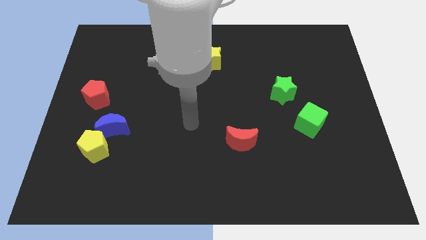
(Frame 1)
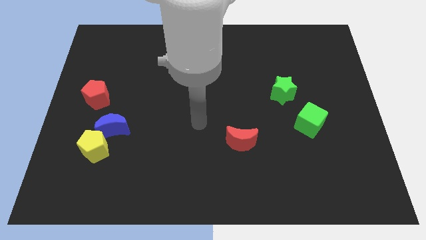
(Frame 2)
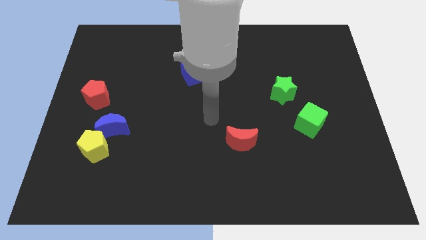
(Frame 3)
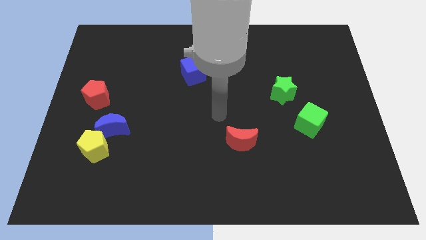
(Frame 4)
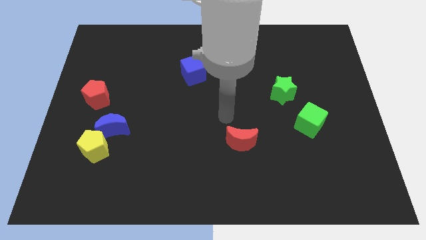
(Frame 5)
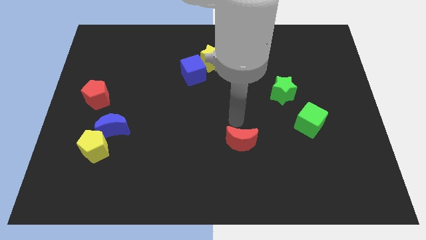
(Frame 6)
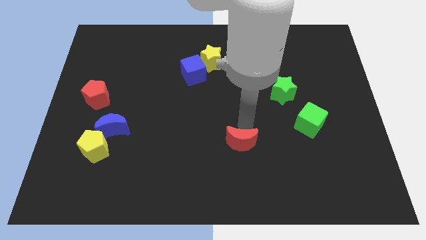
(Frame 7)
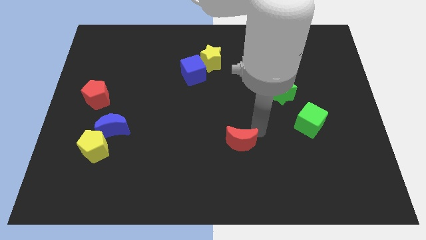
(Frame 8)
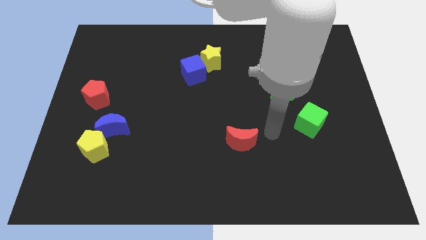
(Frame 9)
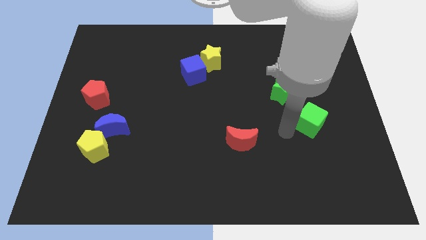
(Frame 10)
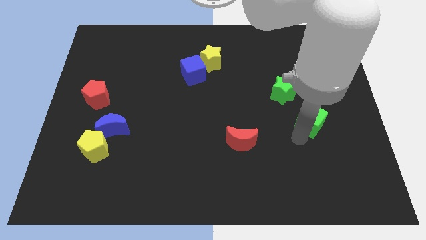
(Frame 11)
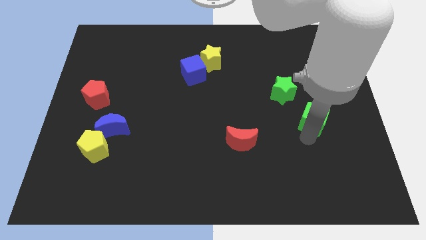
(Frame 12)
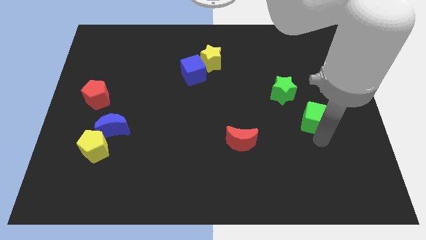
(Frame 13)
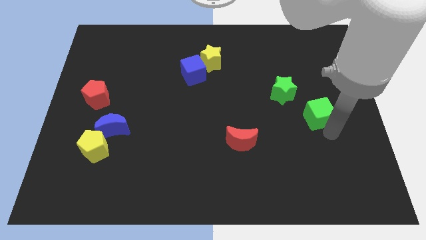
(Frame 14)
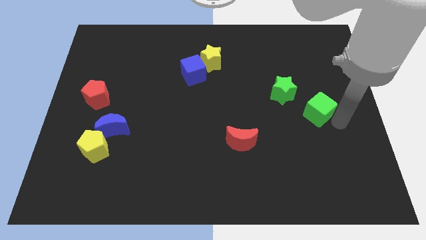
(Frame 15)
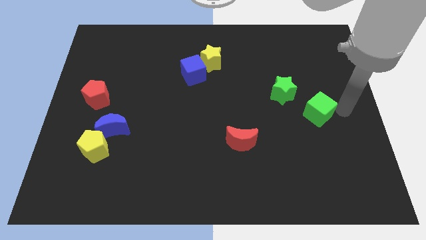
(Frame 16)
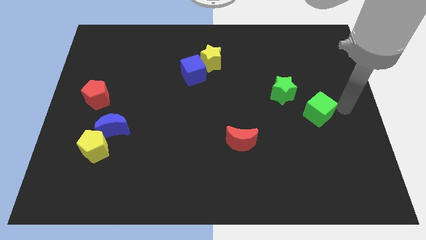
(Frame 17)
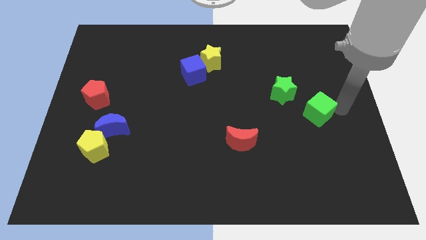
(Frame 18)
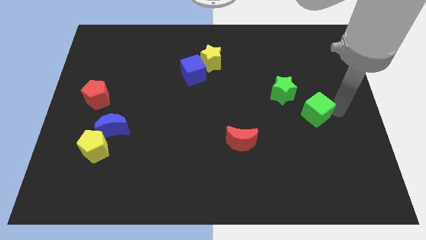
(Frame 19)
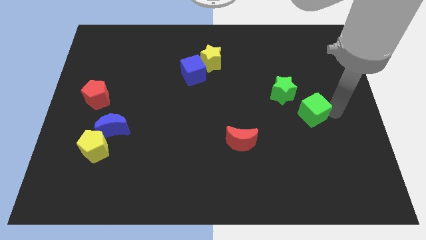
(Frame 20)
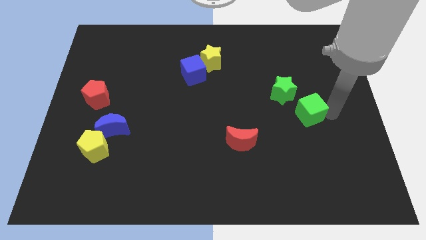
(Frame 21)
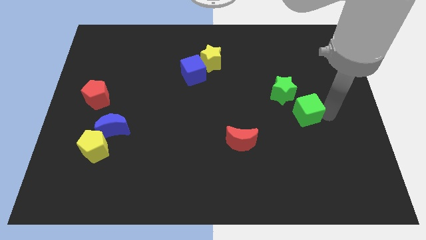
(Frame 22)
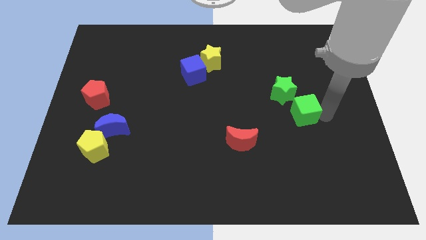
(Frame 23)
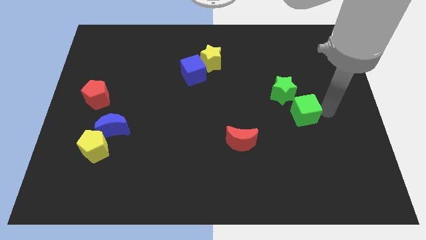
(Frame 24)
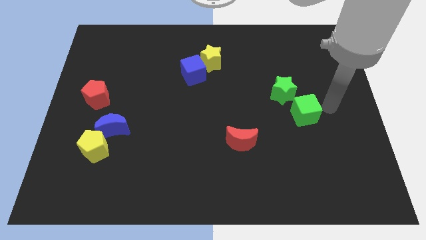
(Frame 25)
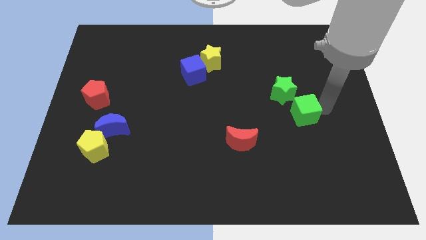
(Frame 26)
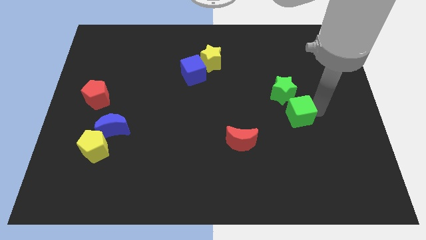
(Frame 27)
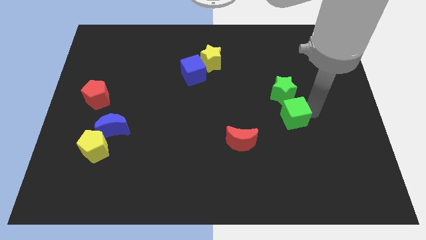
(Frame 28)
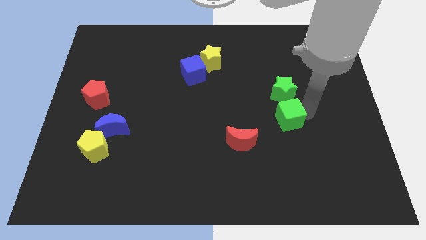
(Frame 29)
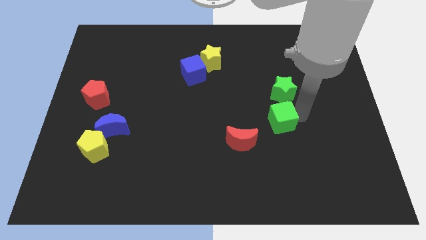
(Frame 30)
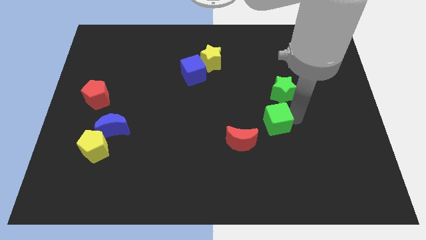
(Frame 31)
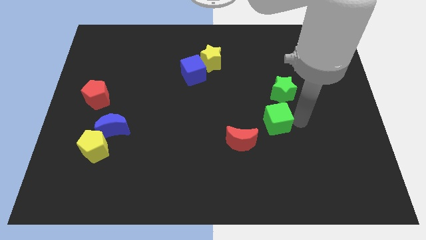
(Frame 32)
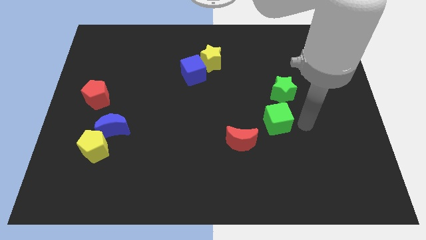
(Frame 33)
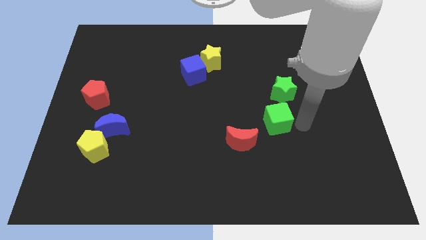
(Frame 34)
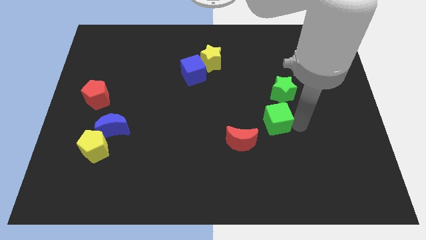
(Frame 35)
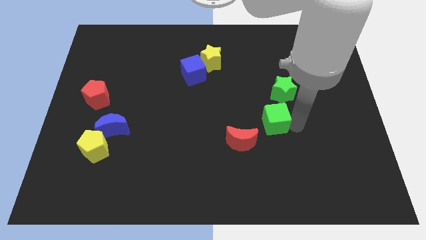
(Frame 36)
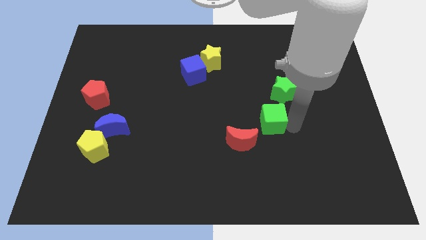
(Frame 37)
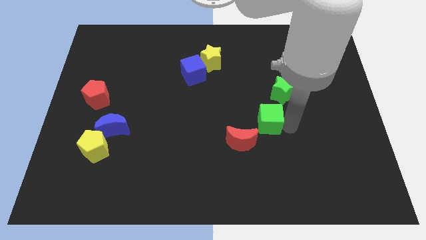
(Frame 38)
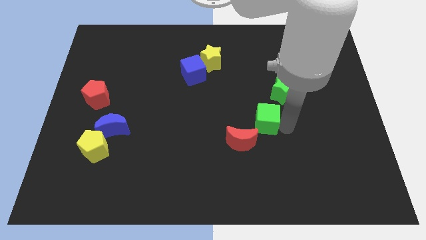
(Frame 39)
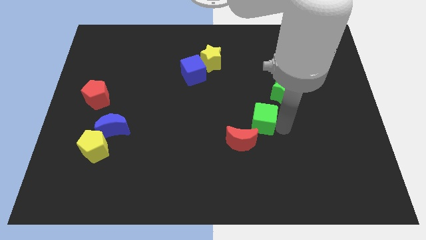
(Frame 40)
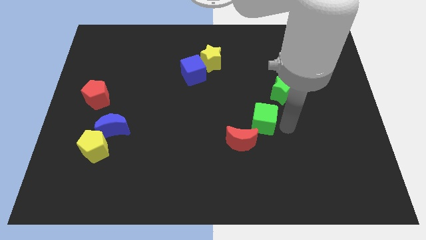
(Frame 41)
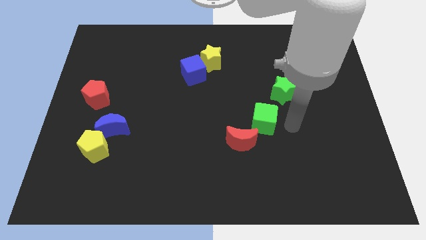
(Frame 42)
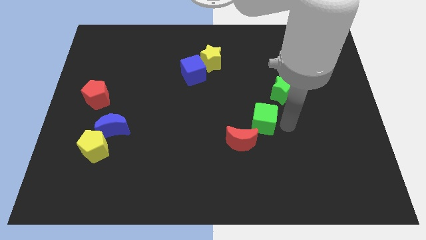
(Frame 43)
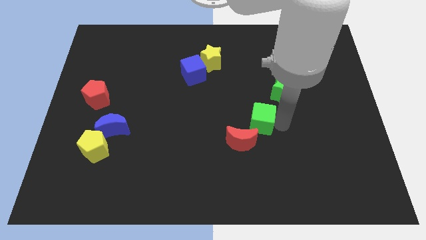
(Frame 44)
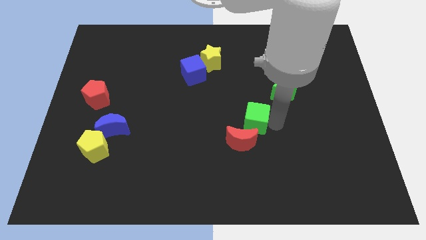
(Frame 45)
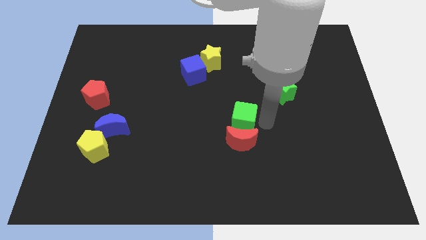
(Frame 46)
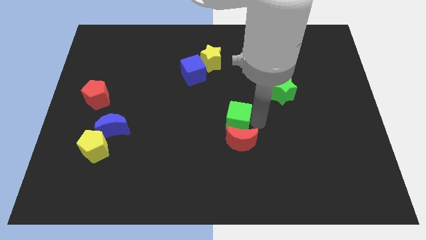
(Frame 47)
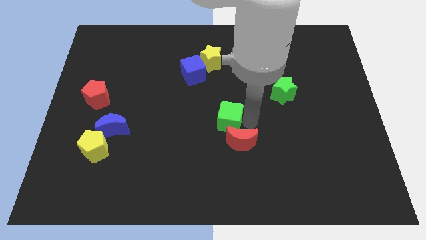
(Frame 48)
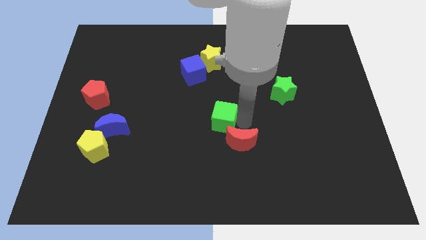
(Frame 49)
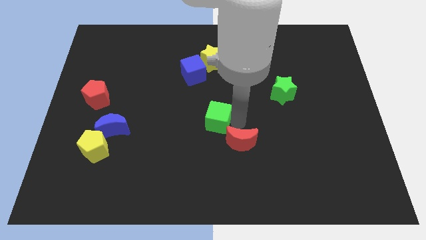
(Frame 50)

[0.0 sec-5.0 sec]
push the green cube to the left

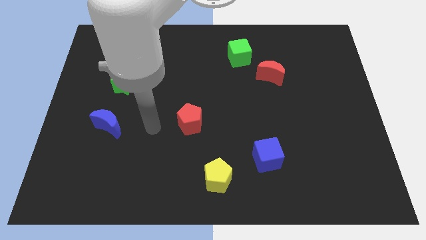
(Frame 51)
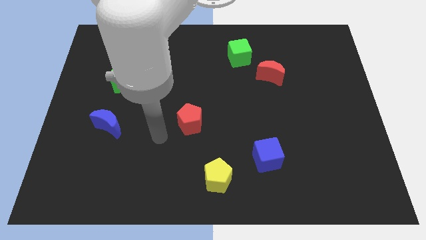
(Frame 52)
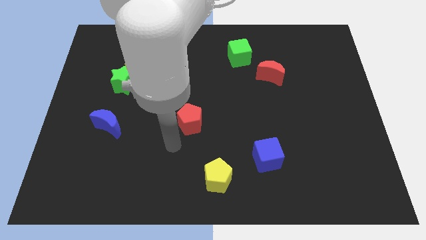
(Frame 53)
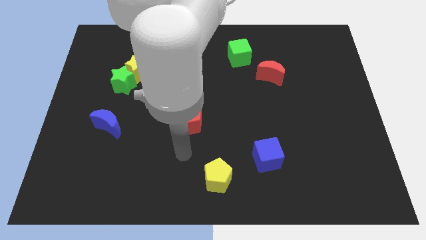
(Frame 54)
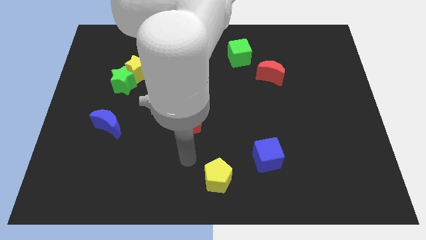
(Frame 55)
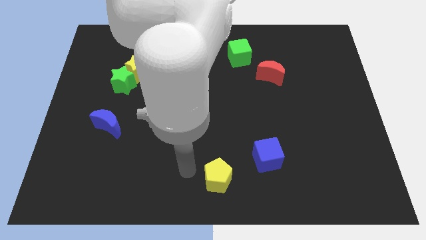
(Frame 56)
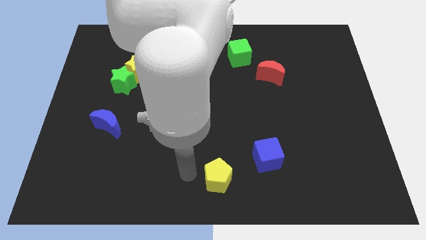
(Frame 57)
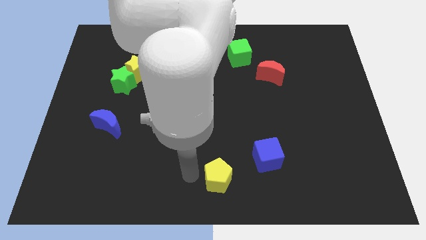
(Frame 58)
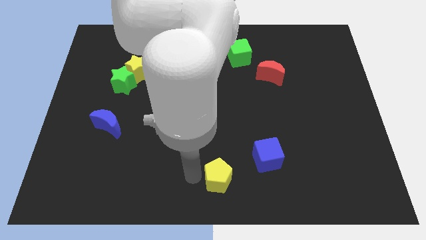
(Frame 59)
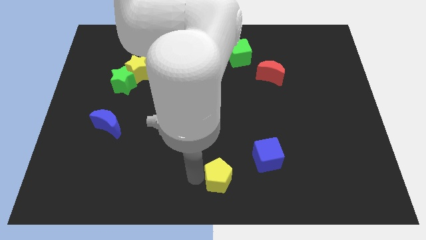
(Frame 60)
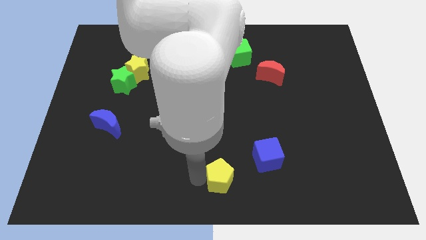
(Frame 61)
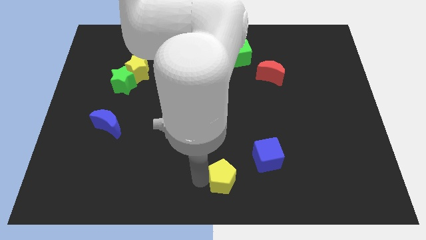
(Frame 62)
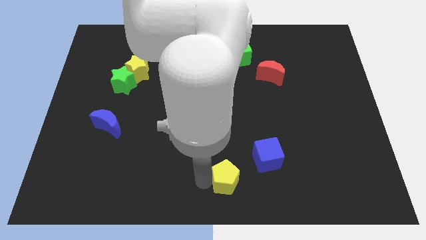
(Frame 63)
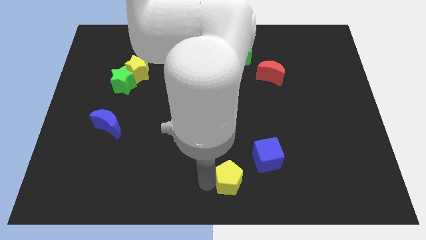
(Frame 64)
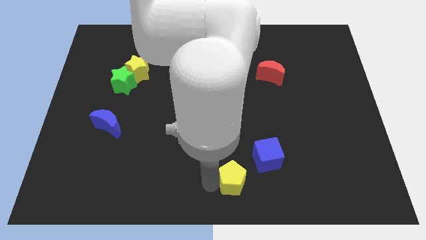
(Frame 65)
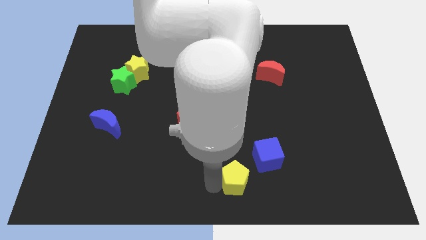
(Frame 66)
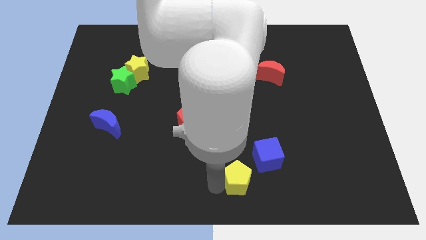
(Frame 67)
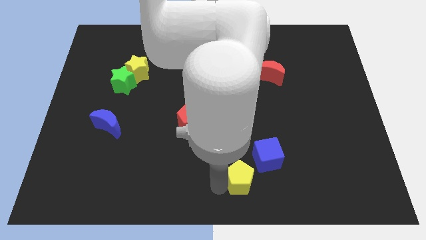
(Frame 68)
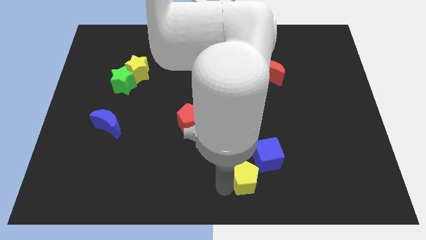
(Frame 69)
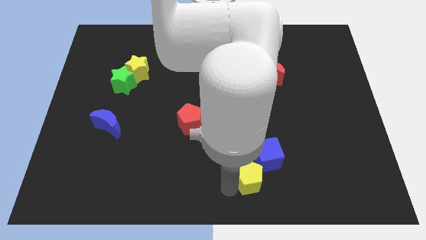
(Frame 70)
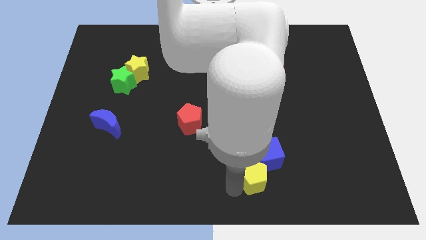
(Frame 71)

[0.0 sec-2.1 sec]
move the yellow pentagon to the right slightly

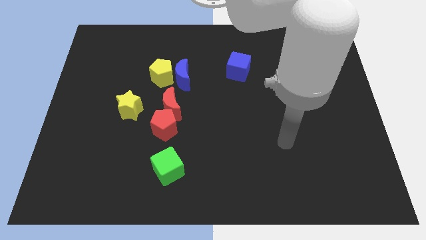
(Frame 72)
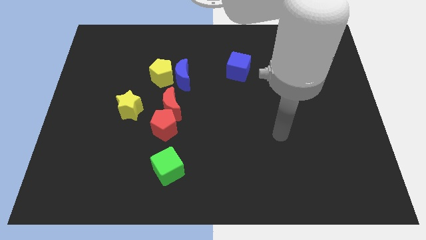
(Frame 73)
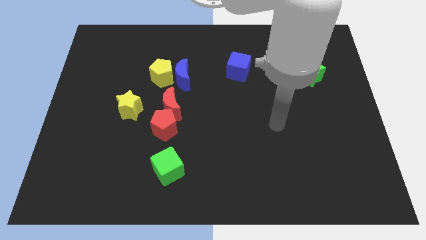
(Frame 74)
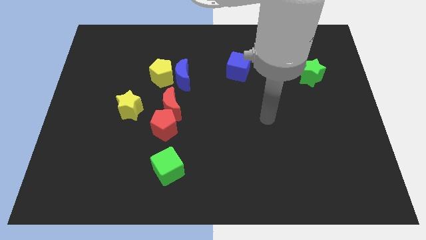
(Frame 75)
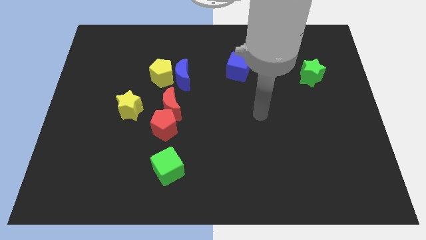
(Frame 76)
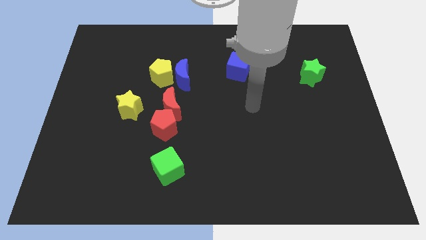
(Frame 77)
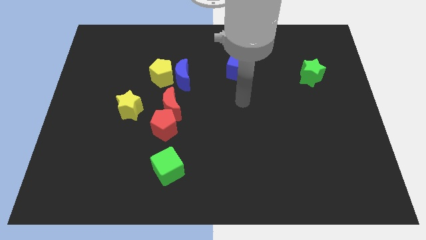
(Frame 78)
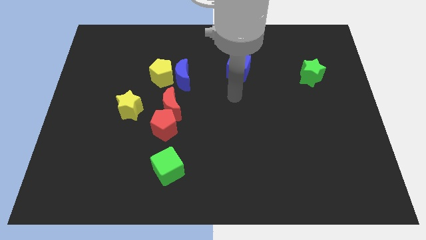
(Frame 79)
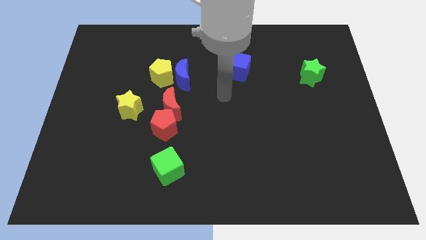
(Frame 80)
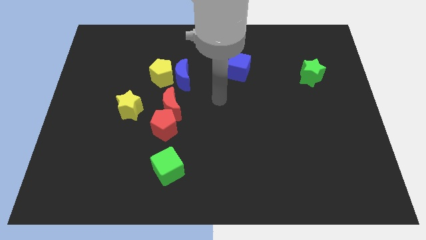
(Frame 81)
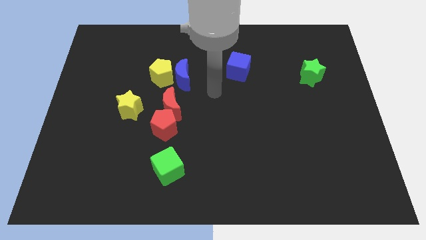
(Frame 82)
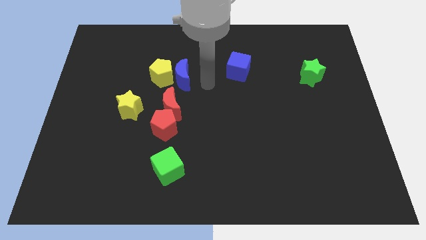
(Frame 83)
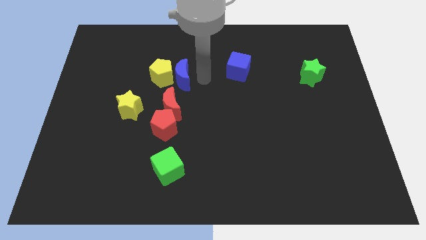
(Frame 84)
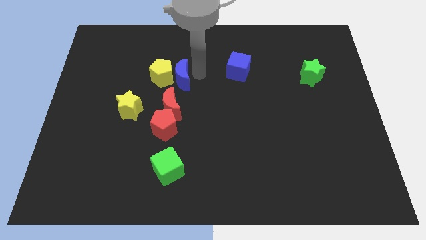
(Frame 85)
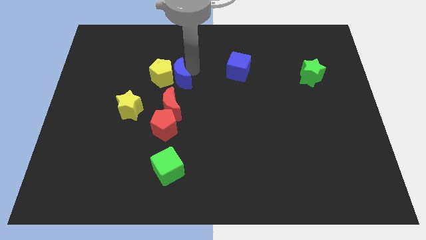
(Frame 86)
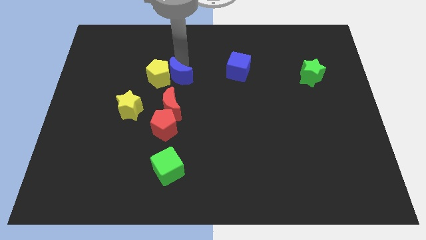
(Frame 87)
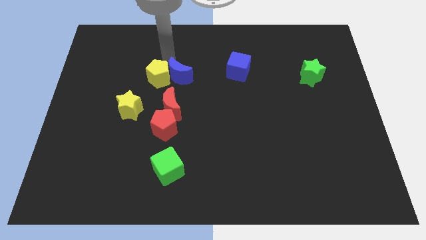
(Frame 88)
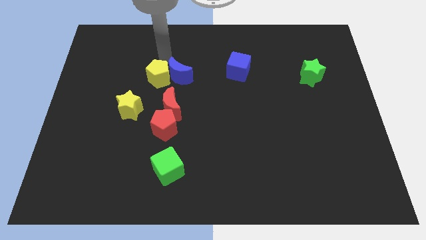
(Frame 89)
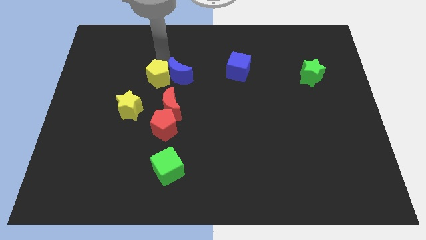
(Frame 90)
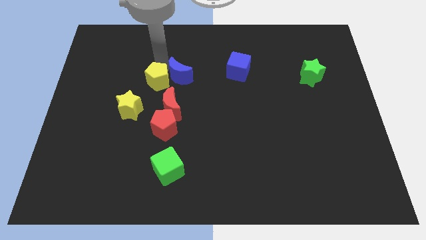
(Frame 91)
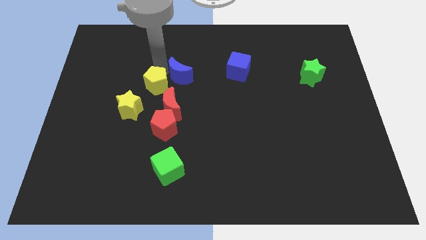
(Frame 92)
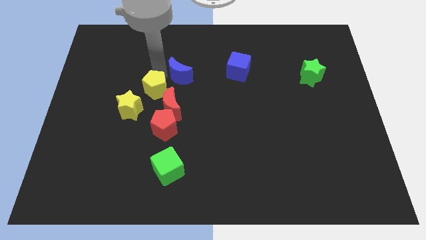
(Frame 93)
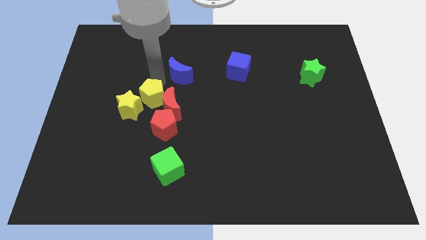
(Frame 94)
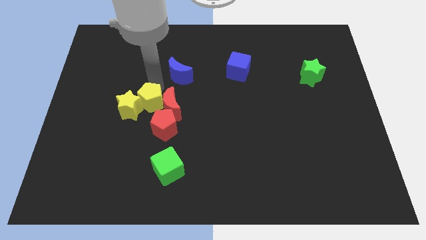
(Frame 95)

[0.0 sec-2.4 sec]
push the yellow pentagon slightly downwards
